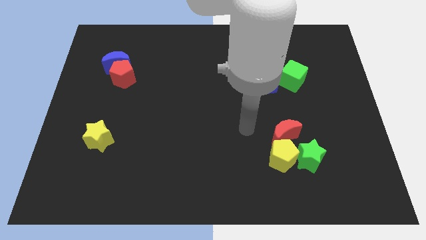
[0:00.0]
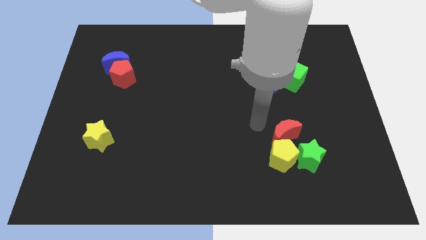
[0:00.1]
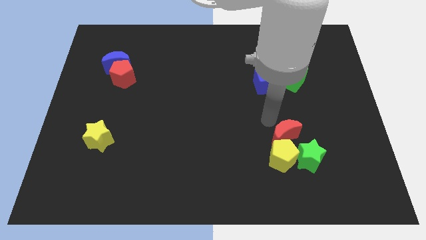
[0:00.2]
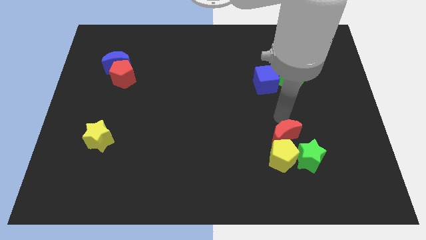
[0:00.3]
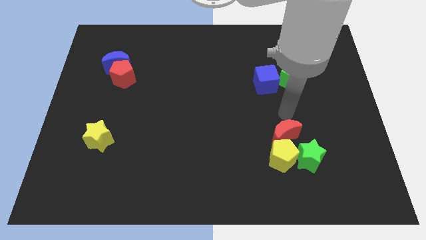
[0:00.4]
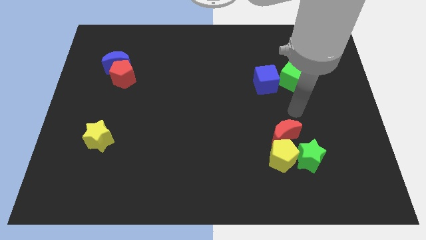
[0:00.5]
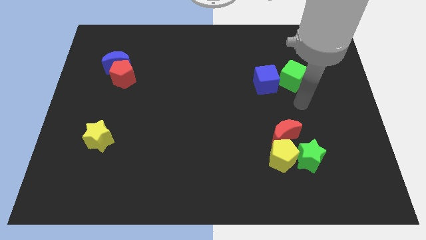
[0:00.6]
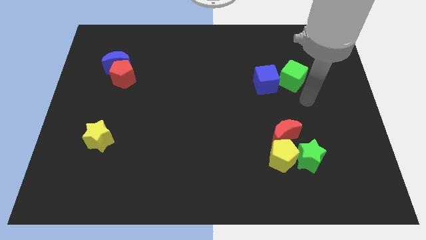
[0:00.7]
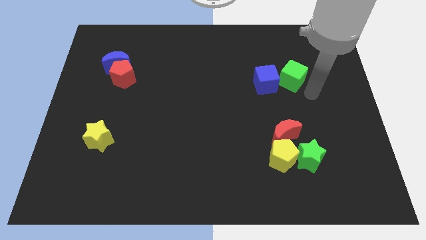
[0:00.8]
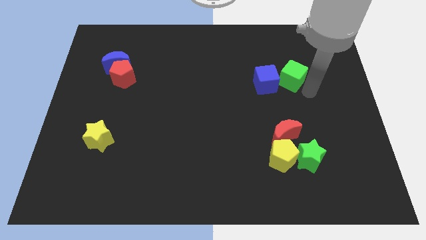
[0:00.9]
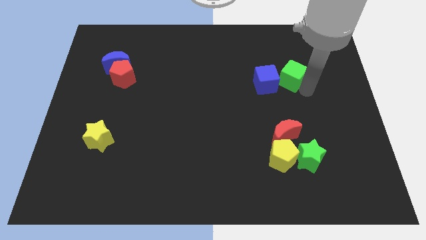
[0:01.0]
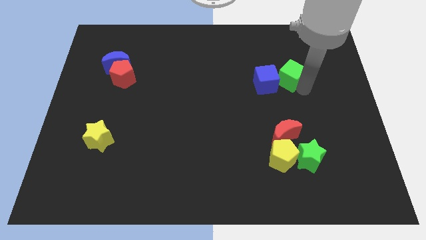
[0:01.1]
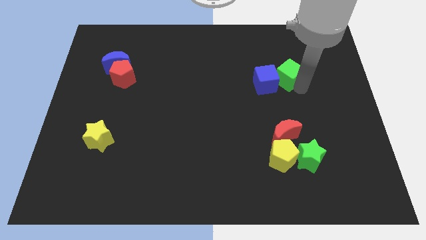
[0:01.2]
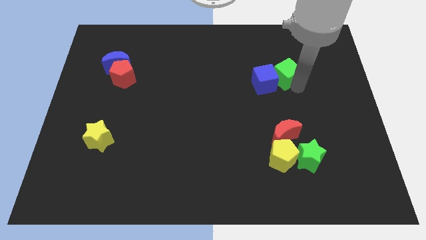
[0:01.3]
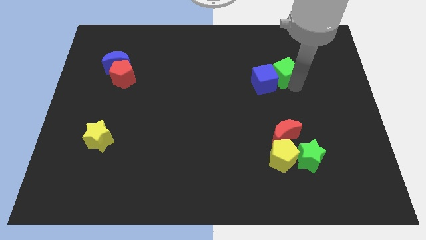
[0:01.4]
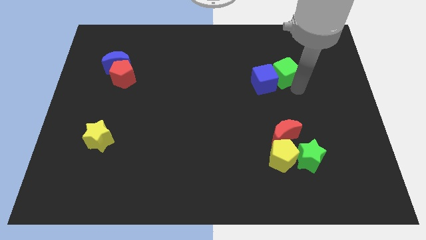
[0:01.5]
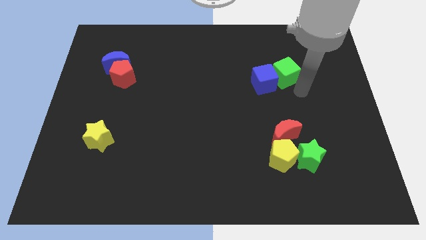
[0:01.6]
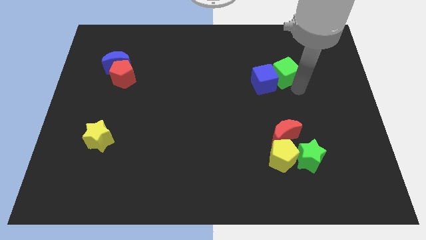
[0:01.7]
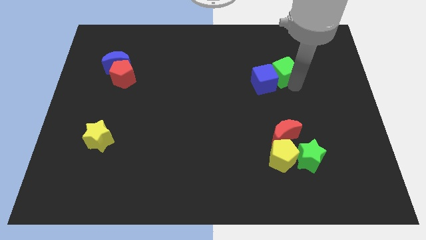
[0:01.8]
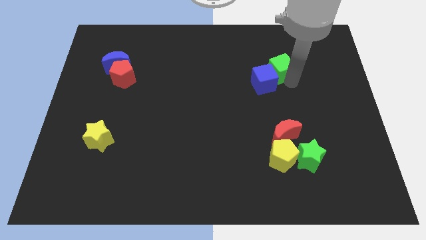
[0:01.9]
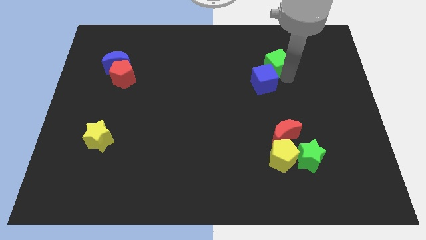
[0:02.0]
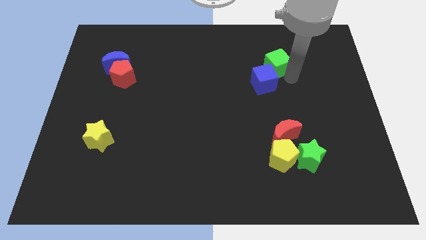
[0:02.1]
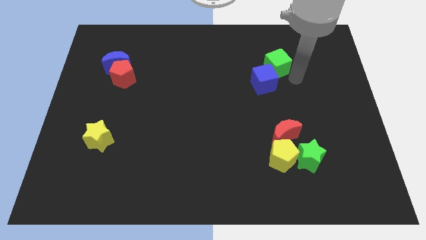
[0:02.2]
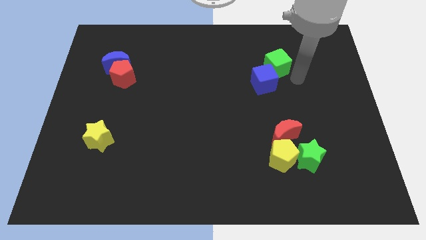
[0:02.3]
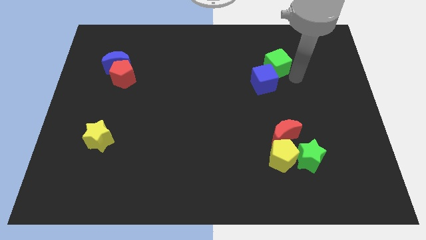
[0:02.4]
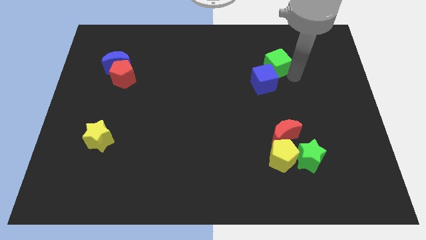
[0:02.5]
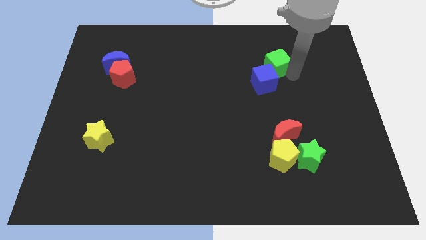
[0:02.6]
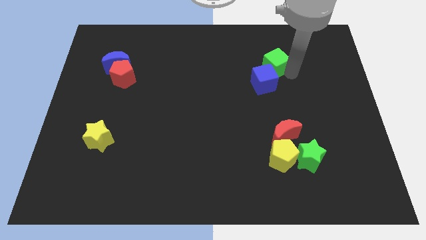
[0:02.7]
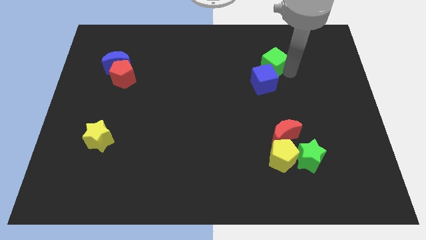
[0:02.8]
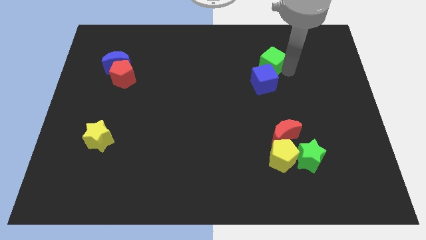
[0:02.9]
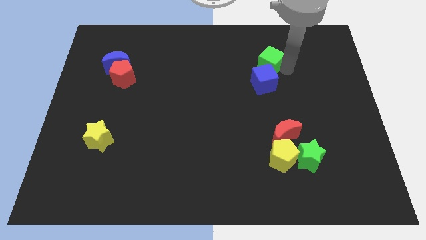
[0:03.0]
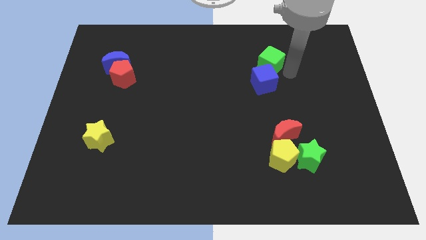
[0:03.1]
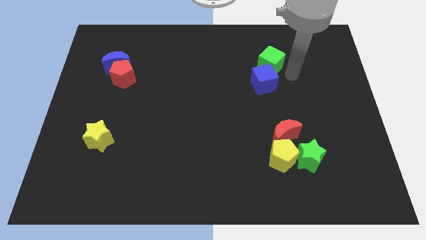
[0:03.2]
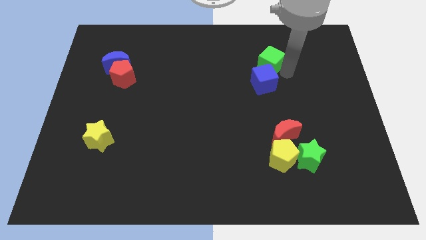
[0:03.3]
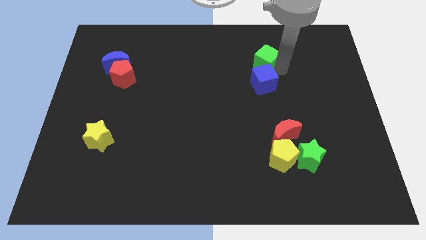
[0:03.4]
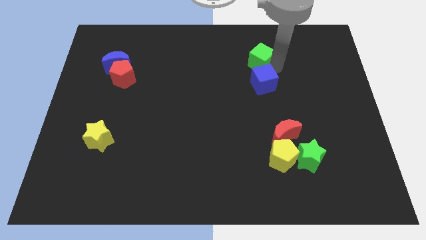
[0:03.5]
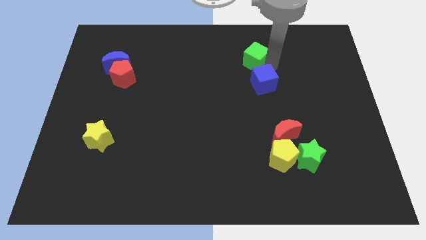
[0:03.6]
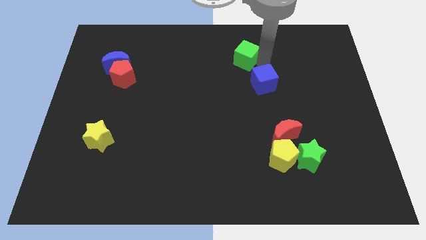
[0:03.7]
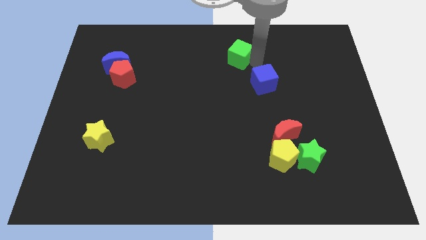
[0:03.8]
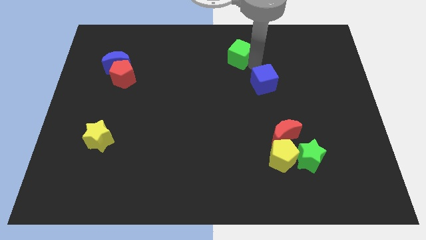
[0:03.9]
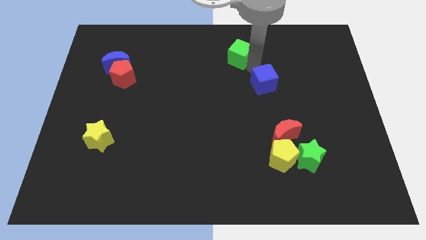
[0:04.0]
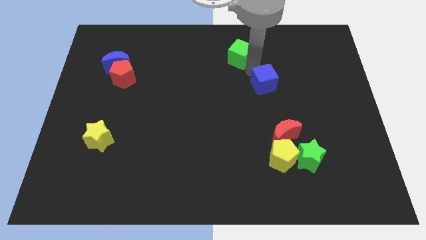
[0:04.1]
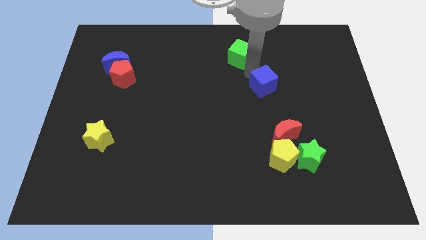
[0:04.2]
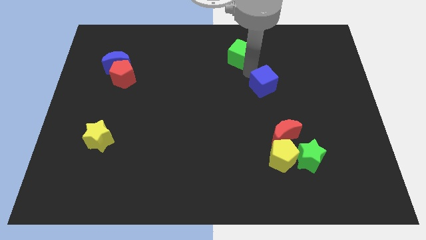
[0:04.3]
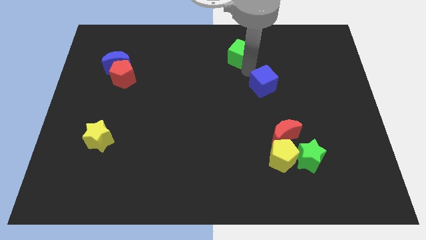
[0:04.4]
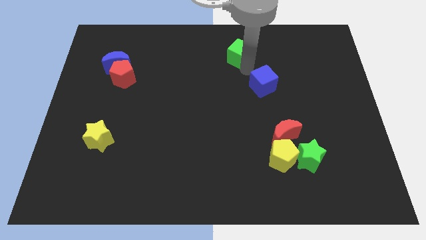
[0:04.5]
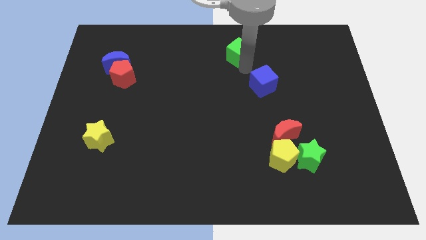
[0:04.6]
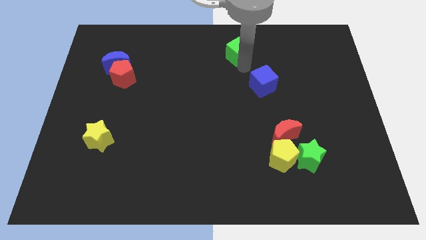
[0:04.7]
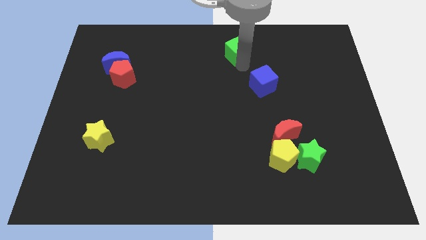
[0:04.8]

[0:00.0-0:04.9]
put the green cube to the top side

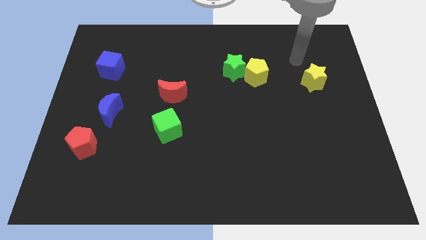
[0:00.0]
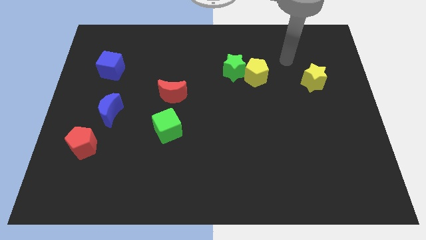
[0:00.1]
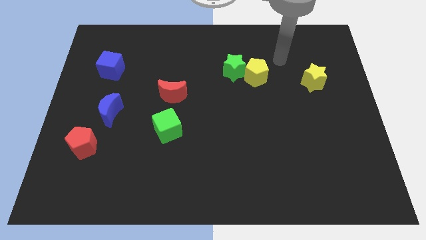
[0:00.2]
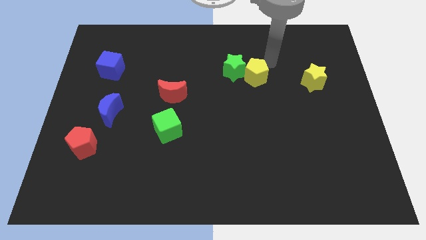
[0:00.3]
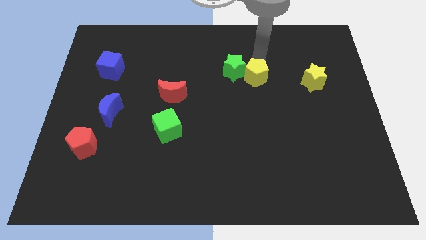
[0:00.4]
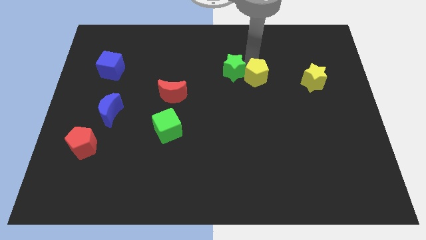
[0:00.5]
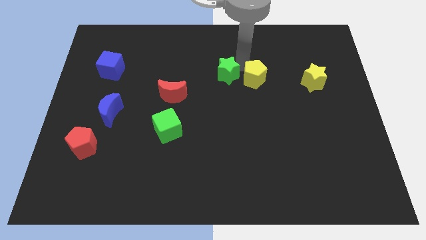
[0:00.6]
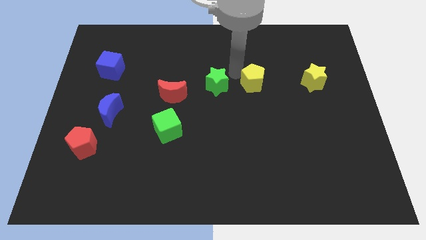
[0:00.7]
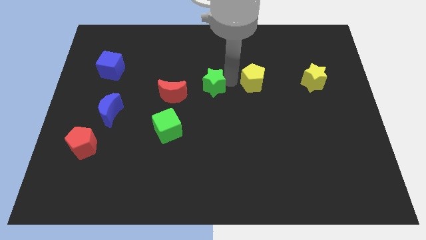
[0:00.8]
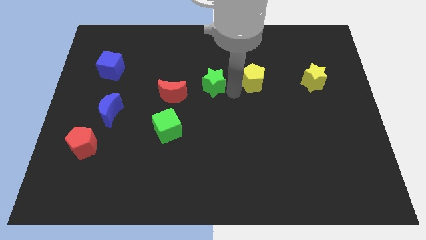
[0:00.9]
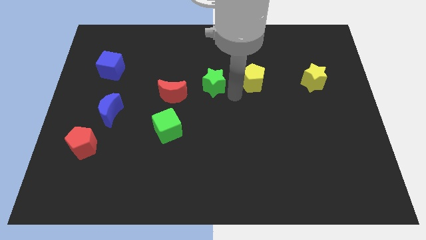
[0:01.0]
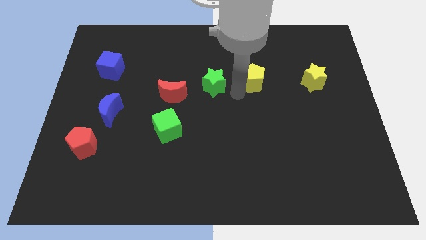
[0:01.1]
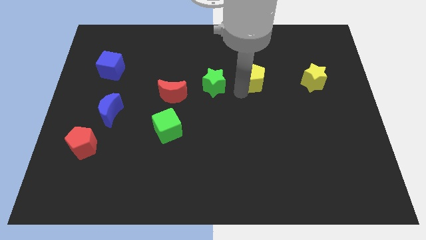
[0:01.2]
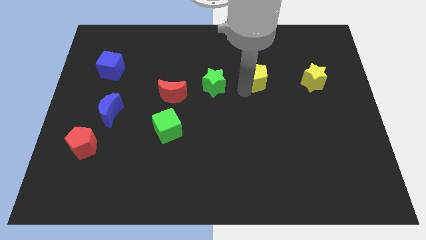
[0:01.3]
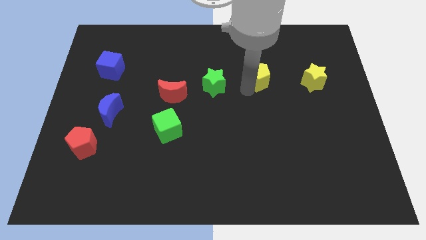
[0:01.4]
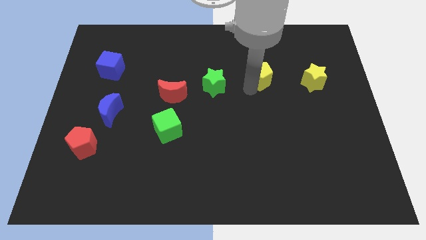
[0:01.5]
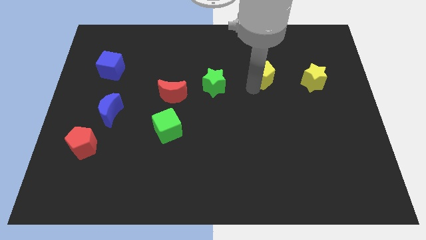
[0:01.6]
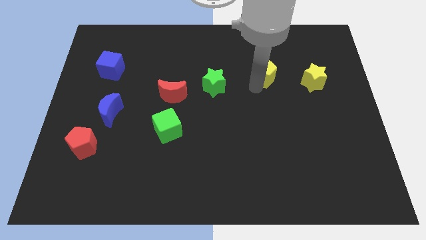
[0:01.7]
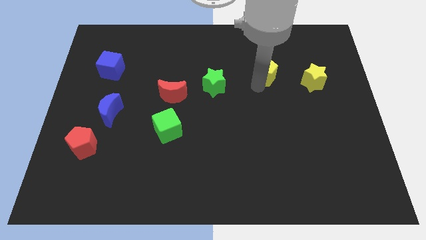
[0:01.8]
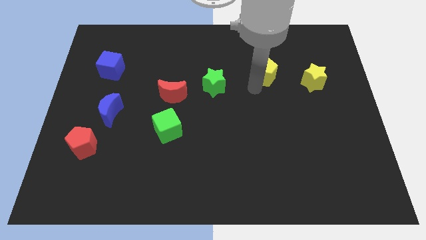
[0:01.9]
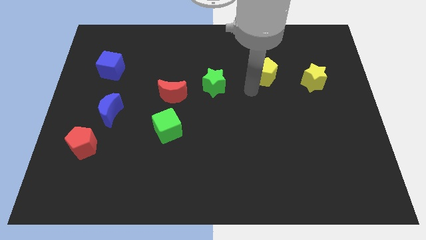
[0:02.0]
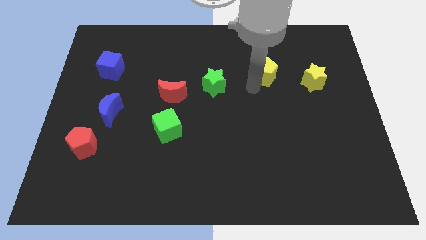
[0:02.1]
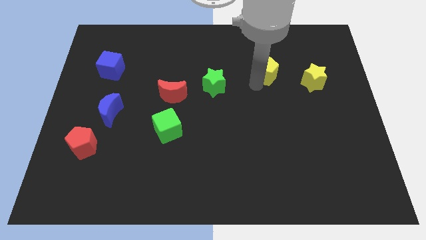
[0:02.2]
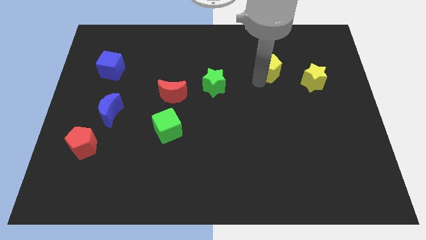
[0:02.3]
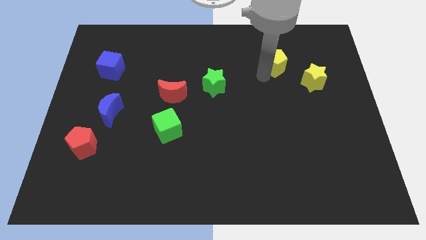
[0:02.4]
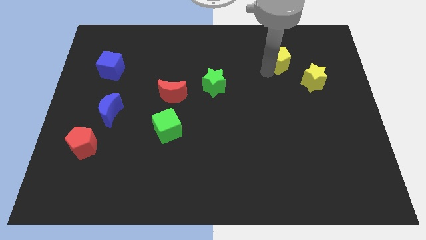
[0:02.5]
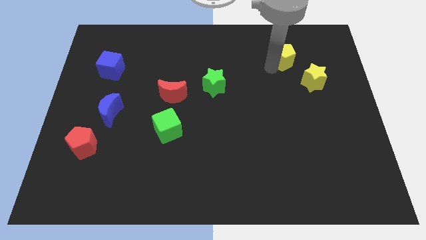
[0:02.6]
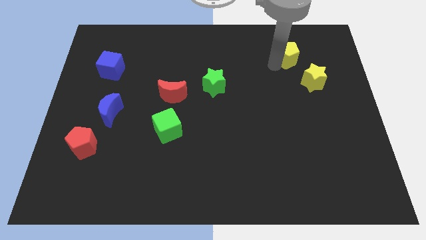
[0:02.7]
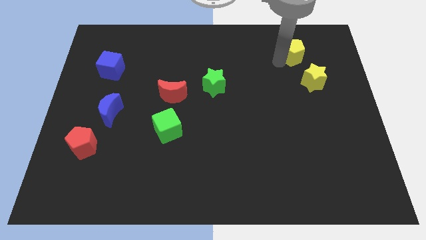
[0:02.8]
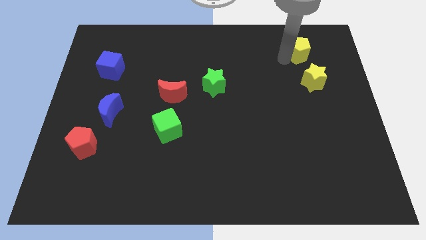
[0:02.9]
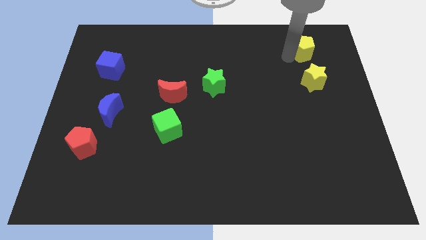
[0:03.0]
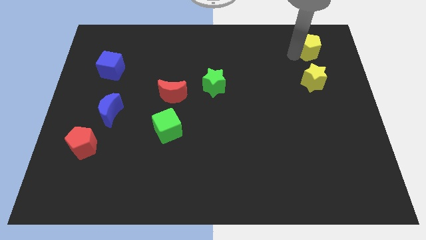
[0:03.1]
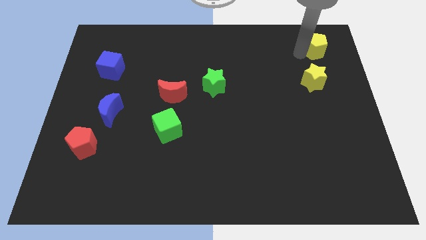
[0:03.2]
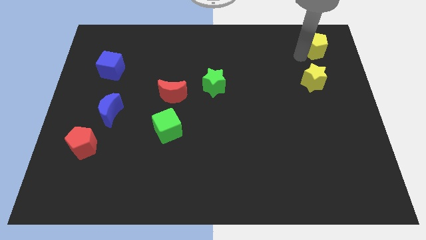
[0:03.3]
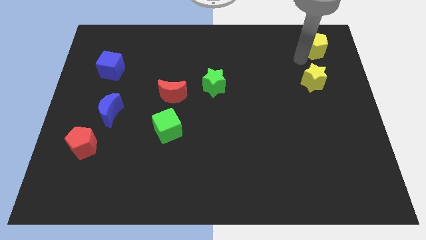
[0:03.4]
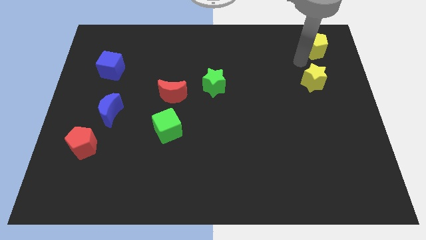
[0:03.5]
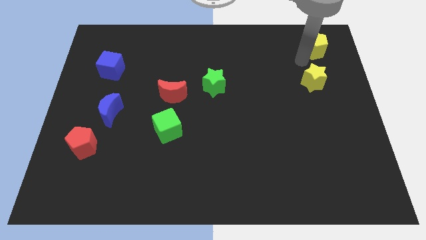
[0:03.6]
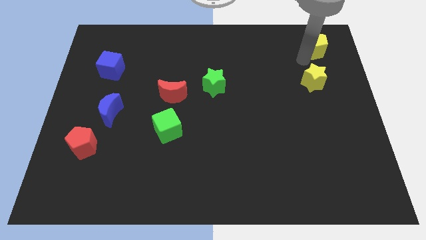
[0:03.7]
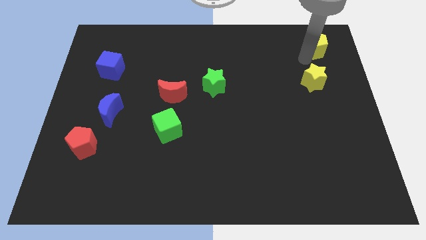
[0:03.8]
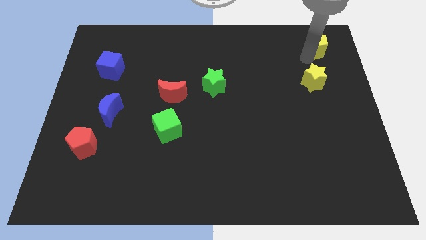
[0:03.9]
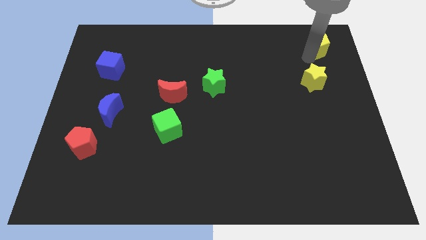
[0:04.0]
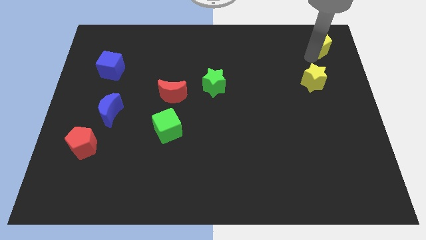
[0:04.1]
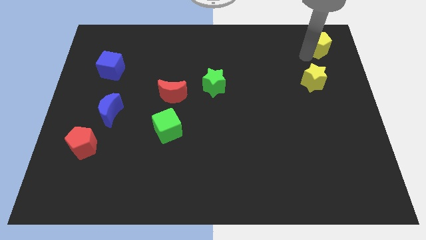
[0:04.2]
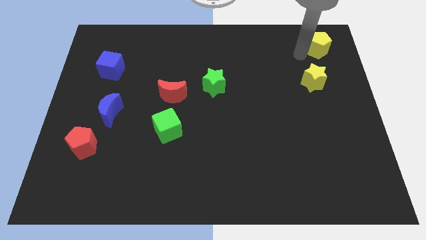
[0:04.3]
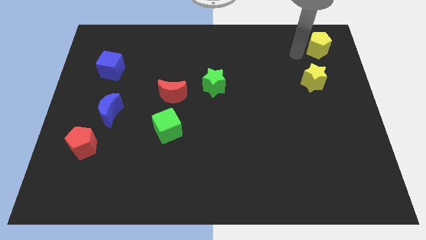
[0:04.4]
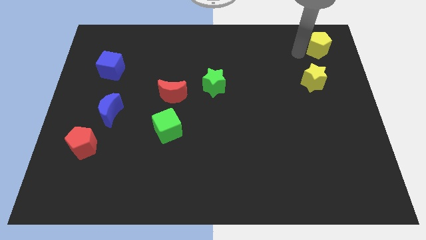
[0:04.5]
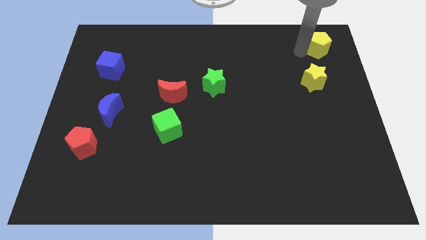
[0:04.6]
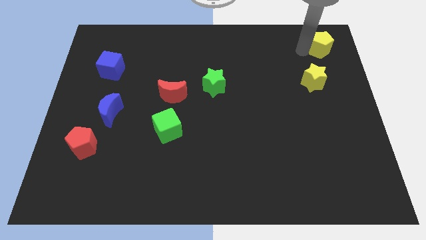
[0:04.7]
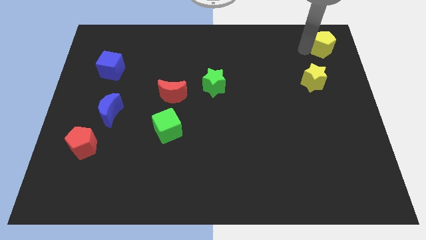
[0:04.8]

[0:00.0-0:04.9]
push the yellow pentagon to the top right corner
